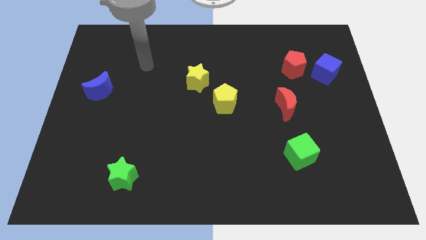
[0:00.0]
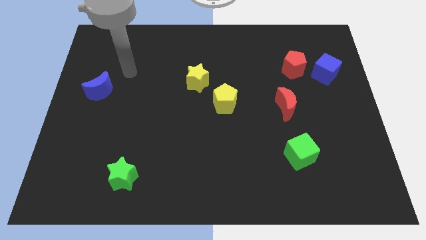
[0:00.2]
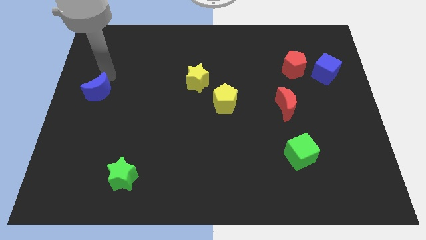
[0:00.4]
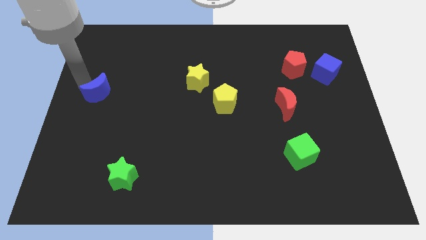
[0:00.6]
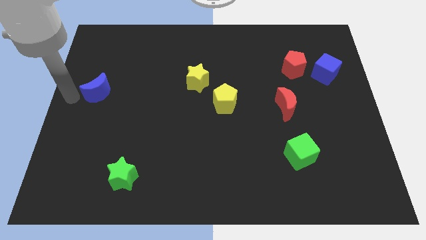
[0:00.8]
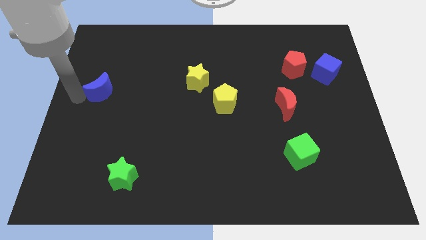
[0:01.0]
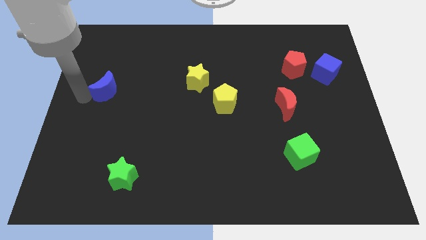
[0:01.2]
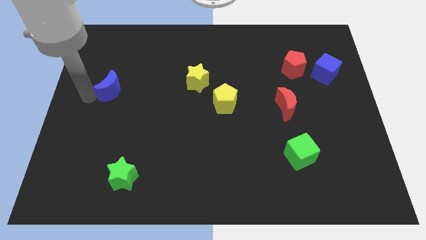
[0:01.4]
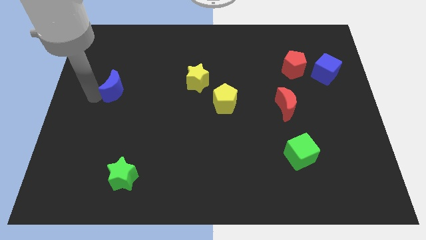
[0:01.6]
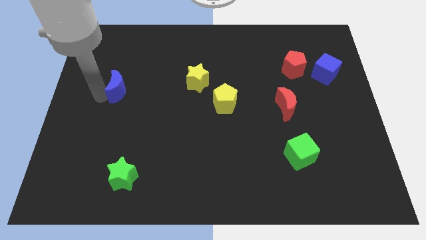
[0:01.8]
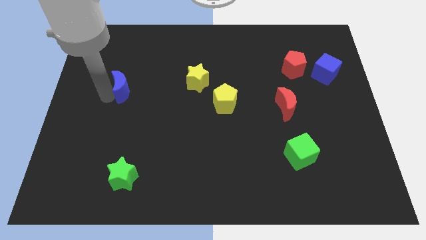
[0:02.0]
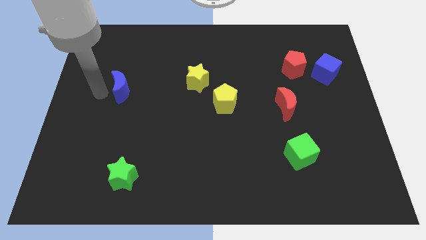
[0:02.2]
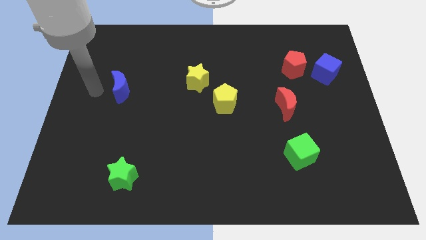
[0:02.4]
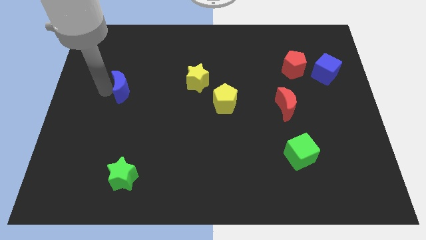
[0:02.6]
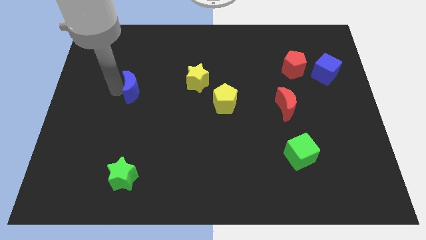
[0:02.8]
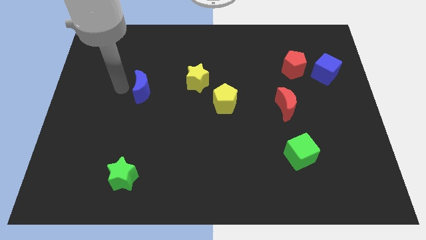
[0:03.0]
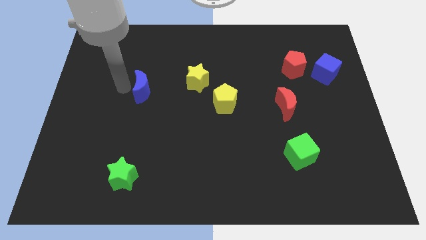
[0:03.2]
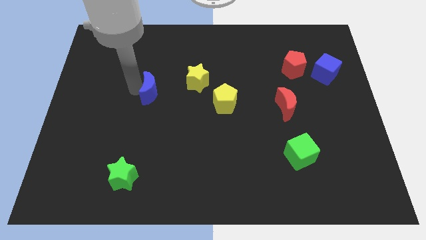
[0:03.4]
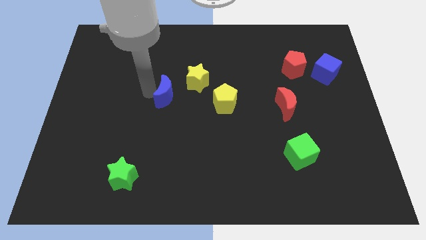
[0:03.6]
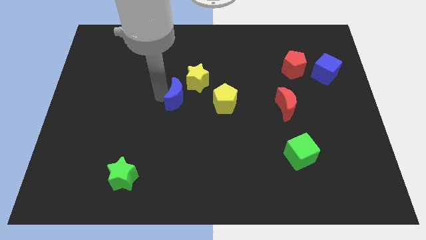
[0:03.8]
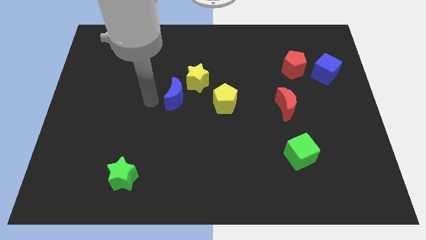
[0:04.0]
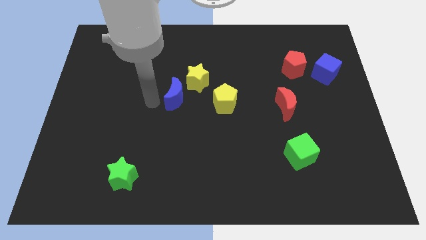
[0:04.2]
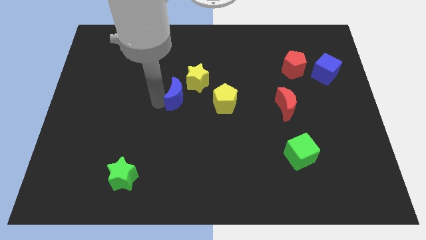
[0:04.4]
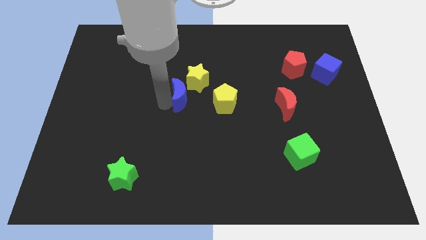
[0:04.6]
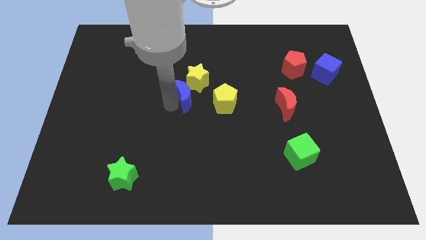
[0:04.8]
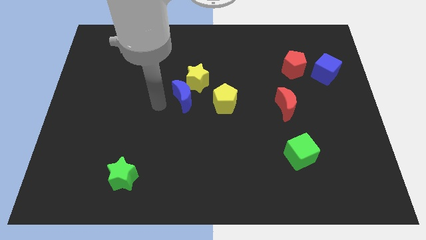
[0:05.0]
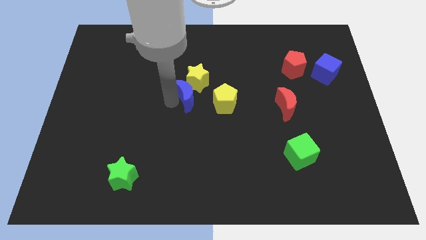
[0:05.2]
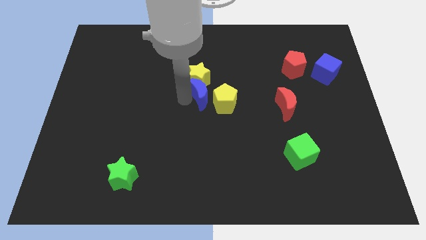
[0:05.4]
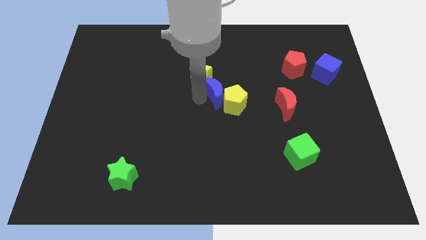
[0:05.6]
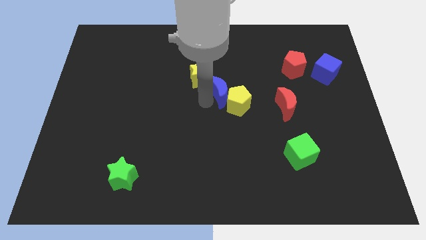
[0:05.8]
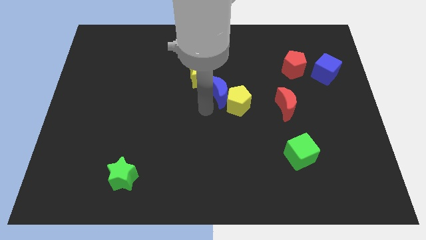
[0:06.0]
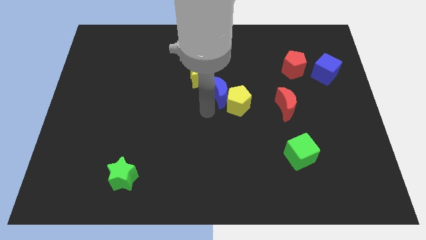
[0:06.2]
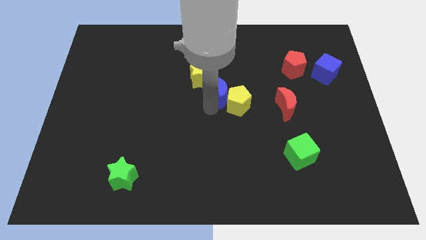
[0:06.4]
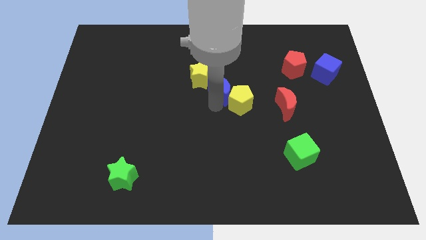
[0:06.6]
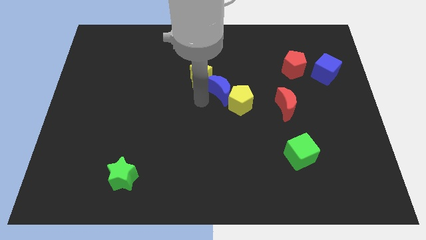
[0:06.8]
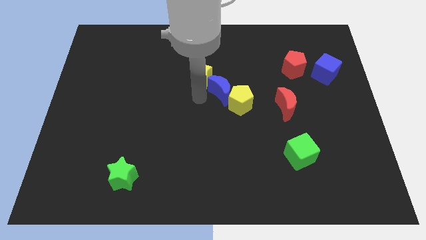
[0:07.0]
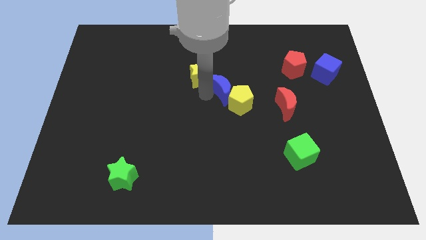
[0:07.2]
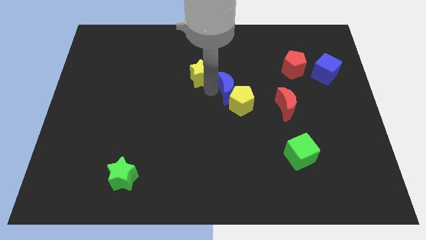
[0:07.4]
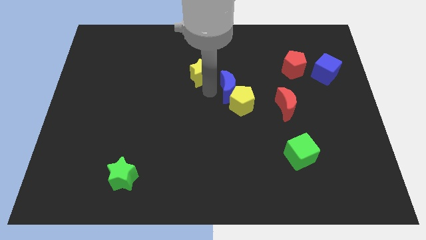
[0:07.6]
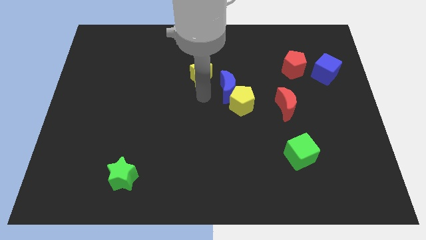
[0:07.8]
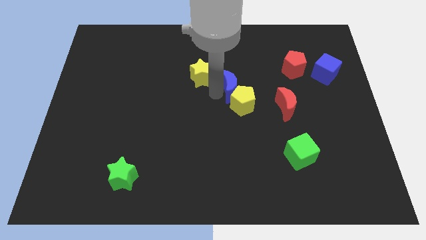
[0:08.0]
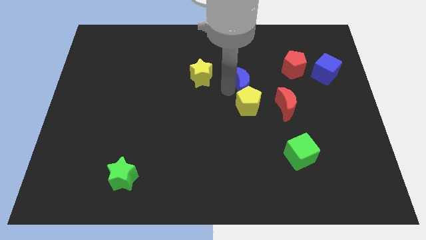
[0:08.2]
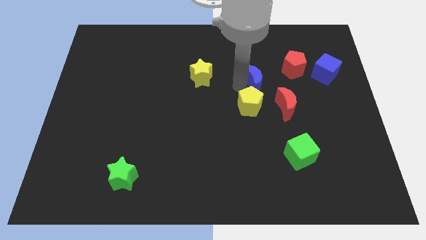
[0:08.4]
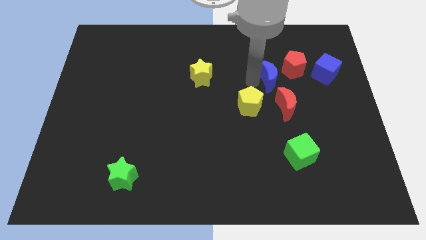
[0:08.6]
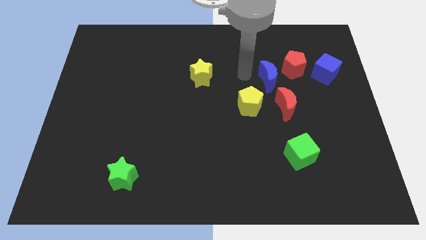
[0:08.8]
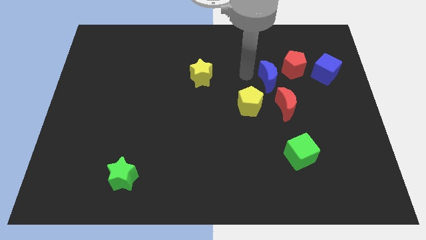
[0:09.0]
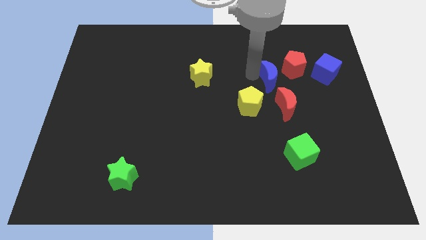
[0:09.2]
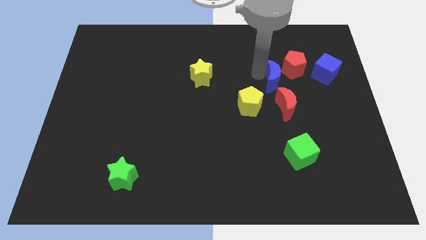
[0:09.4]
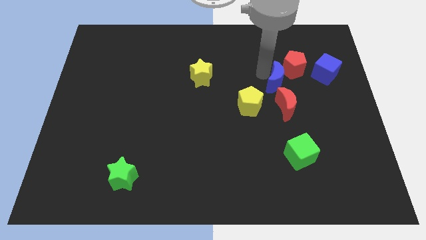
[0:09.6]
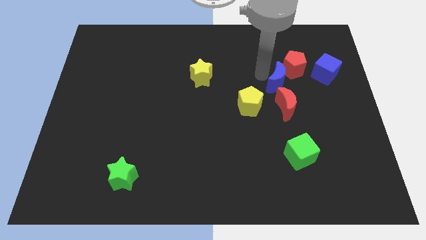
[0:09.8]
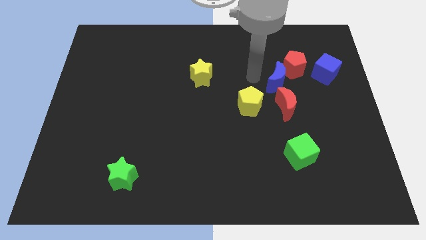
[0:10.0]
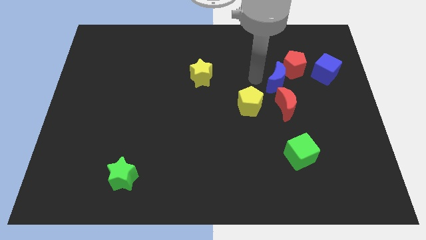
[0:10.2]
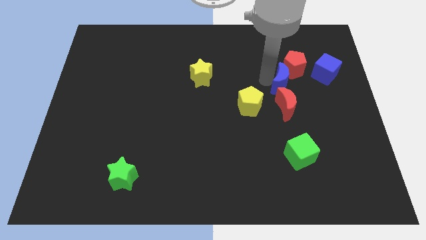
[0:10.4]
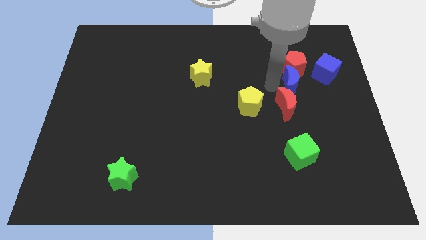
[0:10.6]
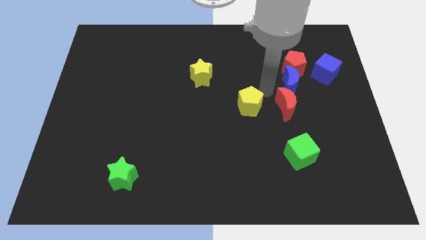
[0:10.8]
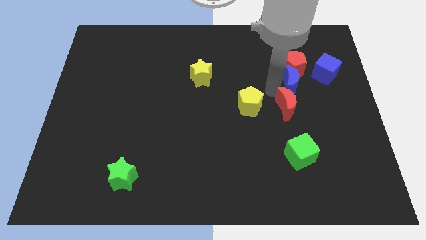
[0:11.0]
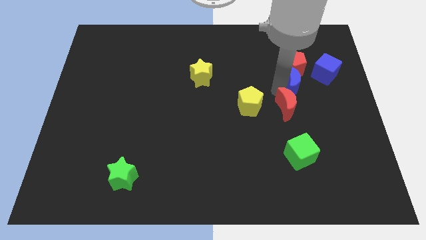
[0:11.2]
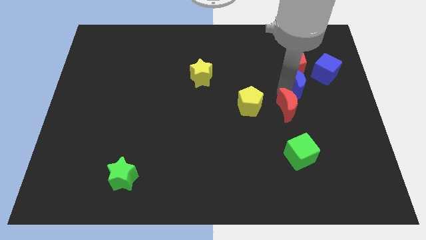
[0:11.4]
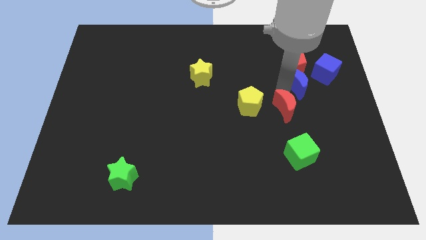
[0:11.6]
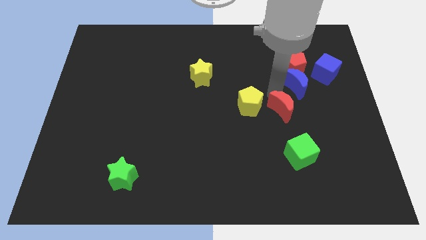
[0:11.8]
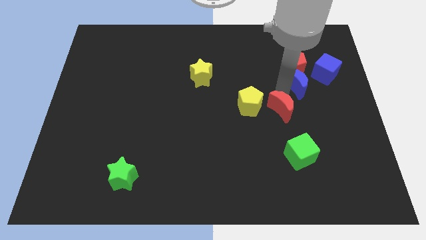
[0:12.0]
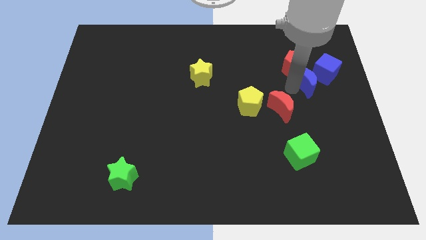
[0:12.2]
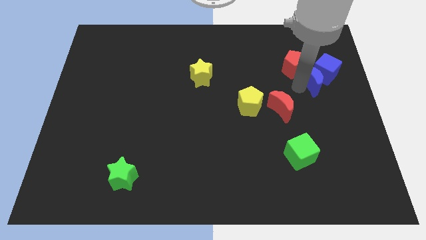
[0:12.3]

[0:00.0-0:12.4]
move the blue moon towards the blue cube

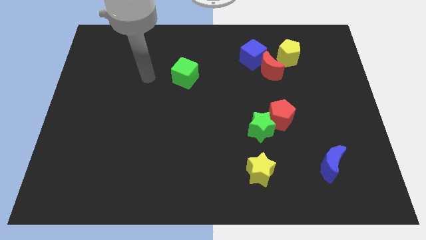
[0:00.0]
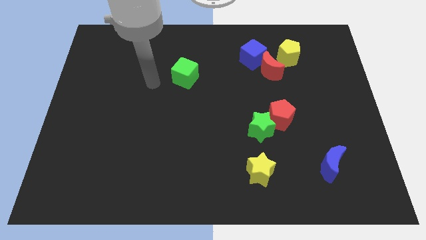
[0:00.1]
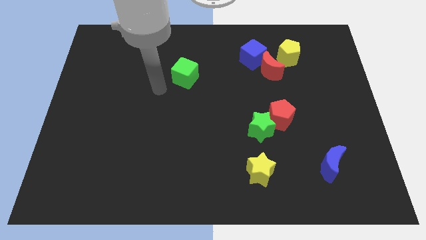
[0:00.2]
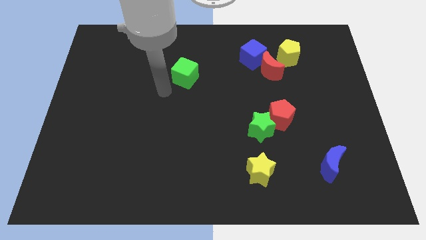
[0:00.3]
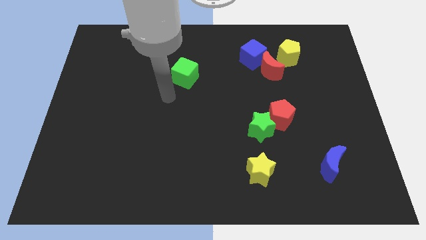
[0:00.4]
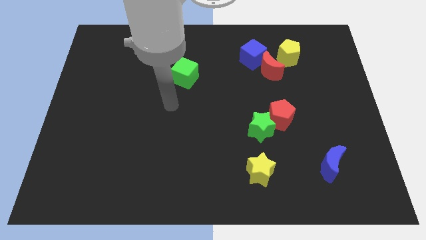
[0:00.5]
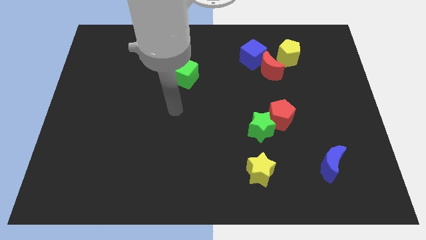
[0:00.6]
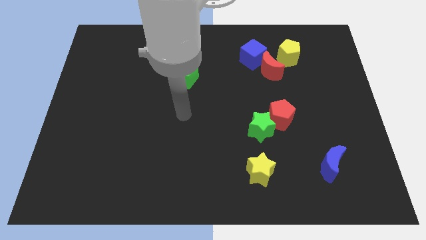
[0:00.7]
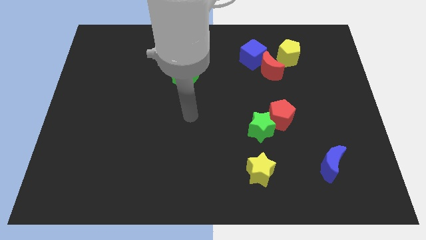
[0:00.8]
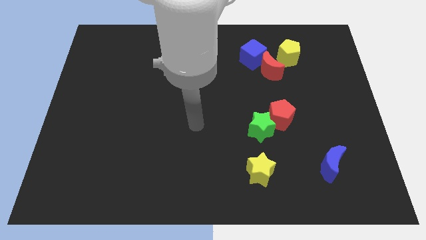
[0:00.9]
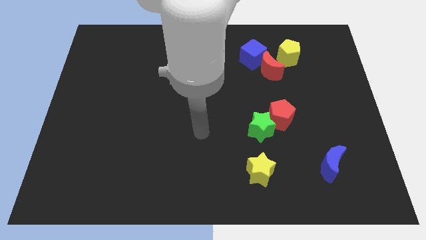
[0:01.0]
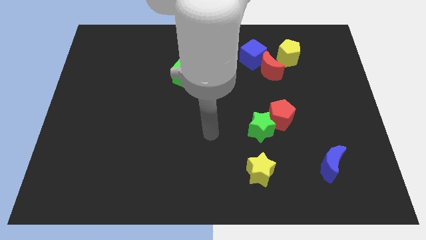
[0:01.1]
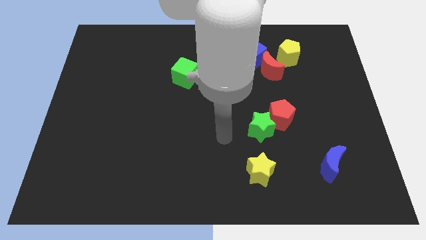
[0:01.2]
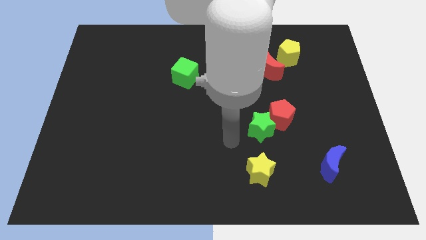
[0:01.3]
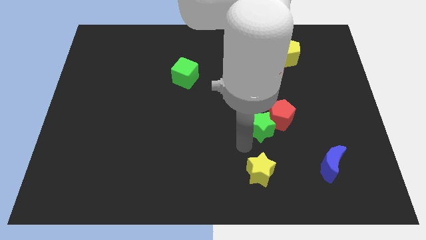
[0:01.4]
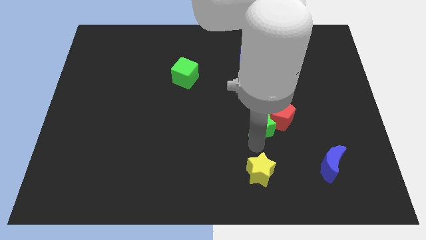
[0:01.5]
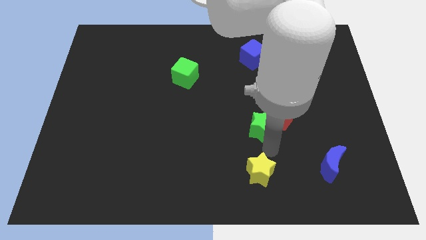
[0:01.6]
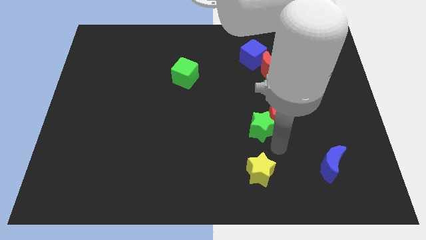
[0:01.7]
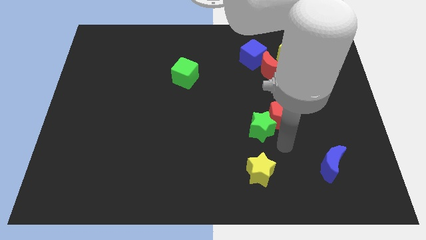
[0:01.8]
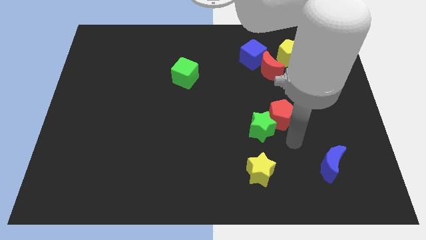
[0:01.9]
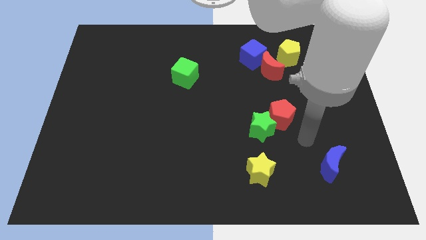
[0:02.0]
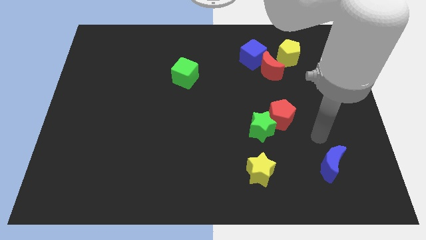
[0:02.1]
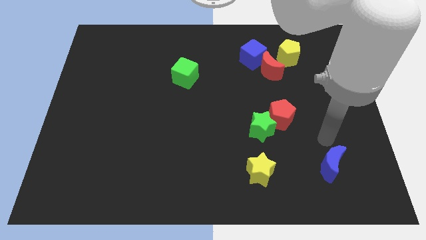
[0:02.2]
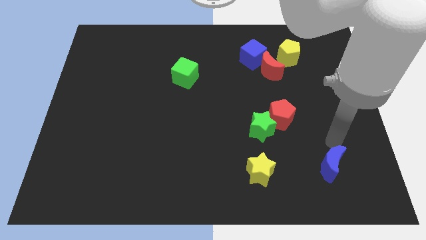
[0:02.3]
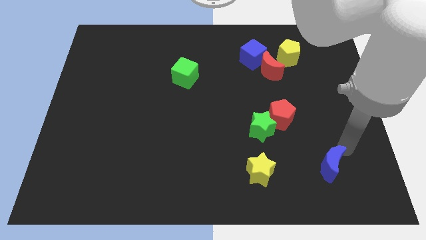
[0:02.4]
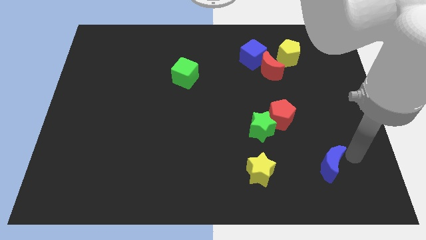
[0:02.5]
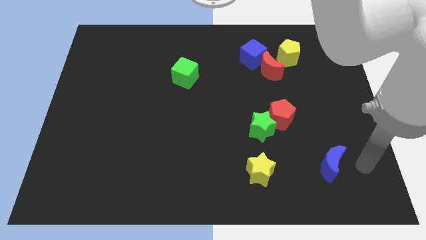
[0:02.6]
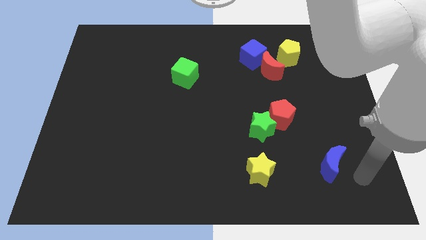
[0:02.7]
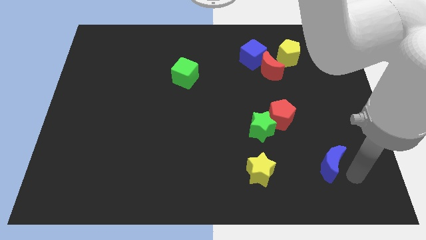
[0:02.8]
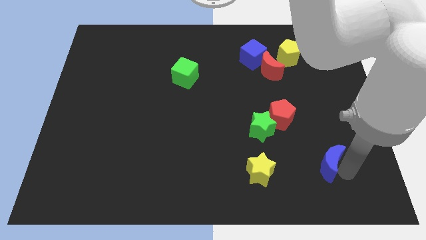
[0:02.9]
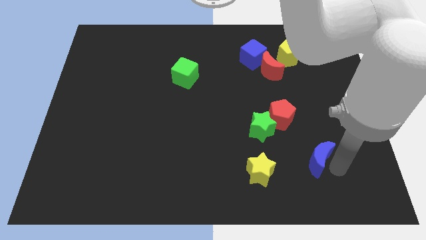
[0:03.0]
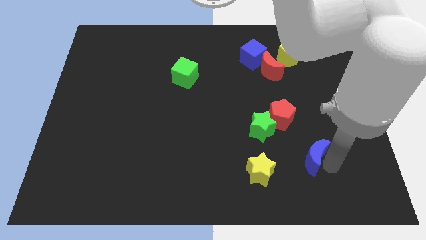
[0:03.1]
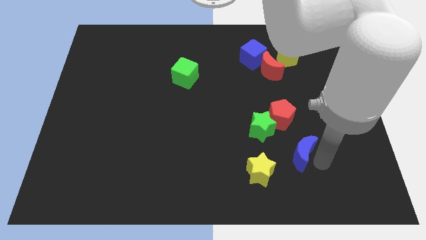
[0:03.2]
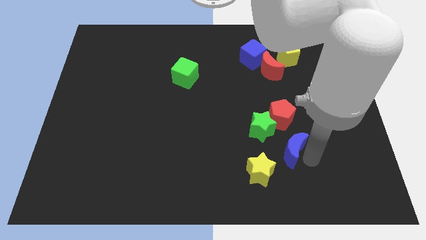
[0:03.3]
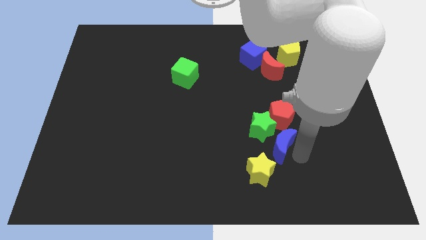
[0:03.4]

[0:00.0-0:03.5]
slide the blue moon next to the green star
